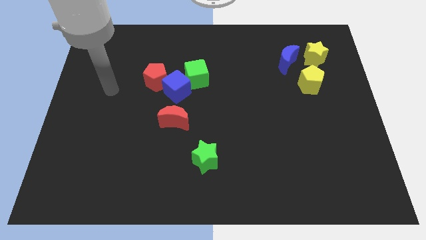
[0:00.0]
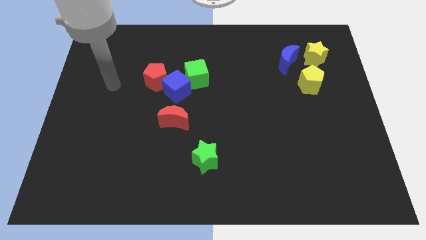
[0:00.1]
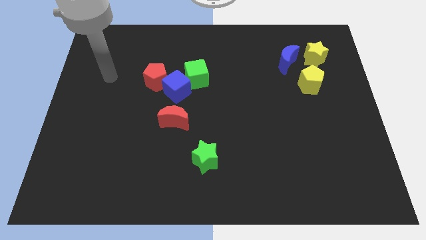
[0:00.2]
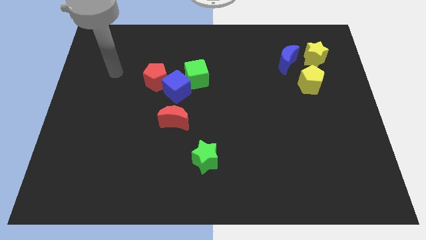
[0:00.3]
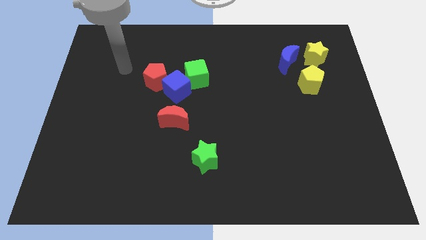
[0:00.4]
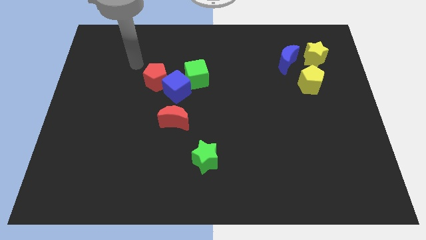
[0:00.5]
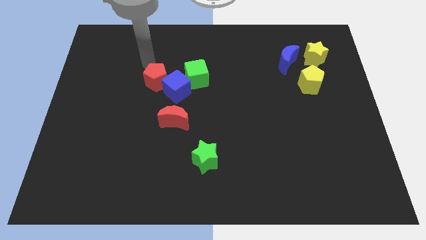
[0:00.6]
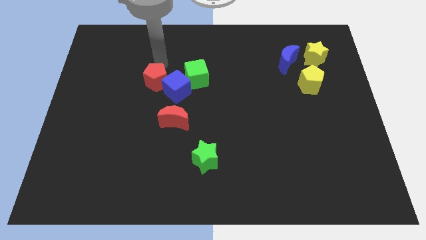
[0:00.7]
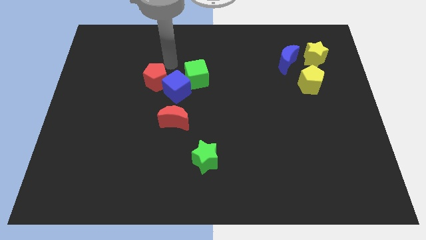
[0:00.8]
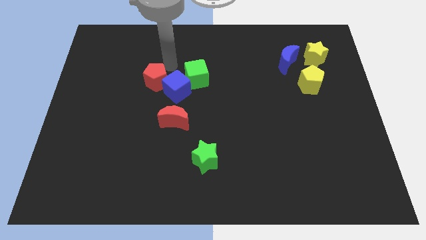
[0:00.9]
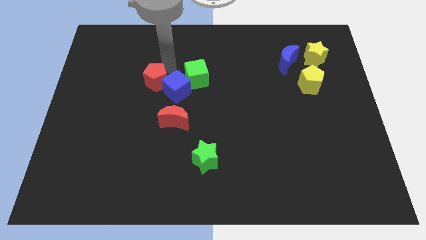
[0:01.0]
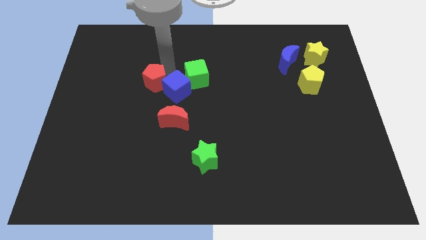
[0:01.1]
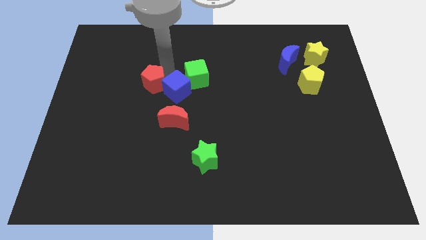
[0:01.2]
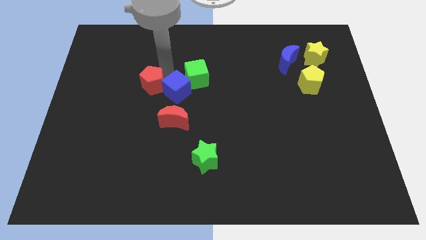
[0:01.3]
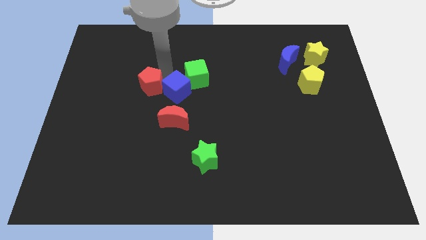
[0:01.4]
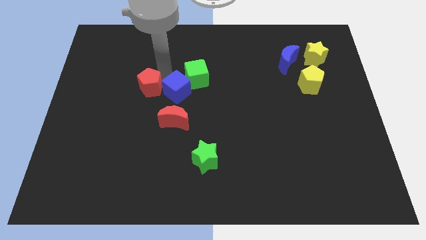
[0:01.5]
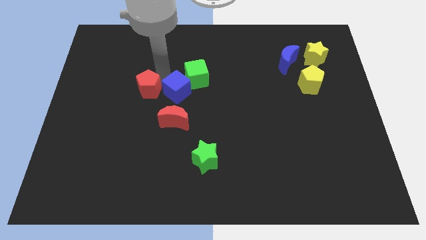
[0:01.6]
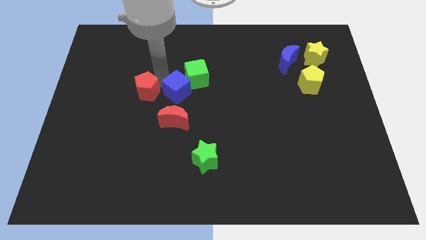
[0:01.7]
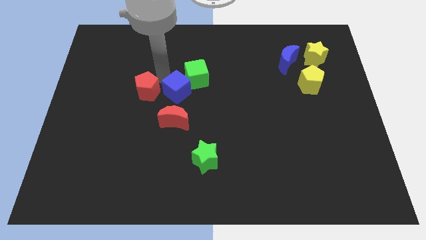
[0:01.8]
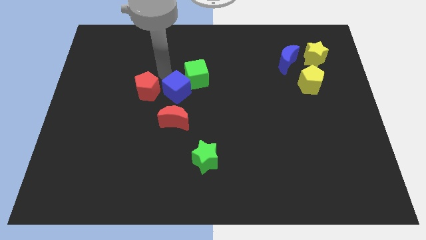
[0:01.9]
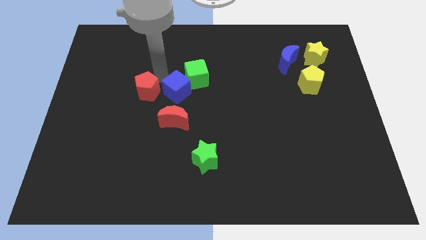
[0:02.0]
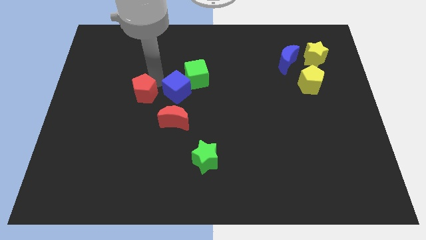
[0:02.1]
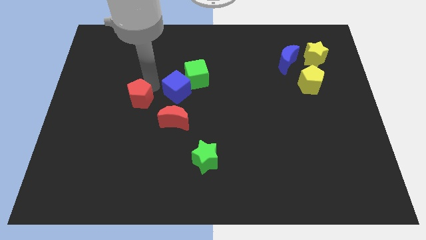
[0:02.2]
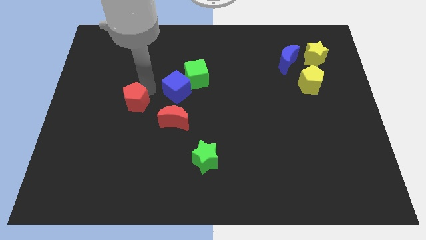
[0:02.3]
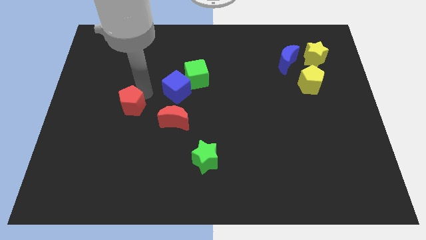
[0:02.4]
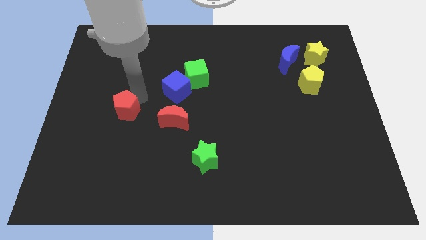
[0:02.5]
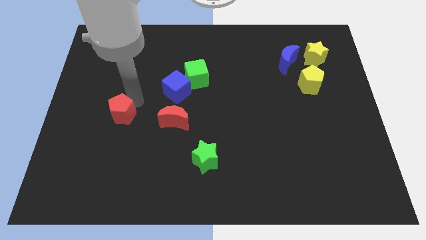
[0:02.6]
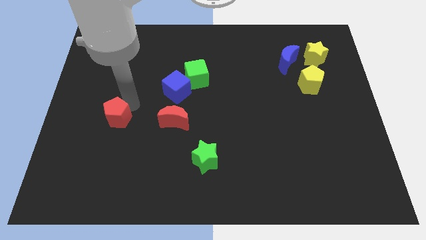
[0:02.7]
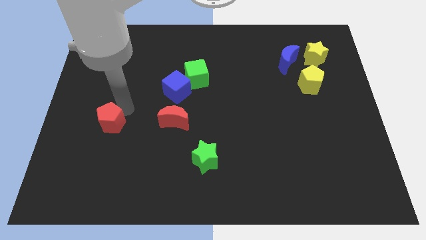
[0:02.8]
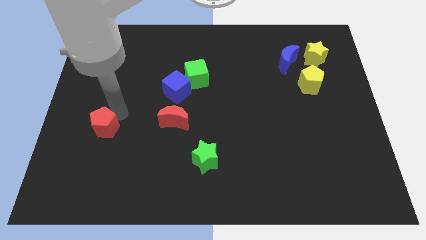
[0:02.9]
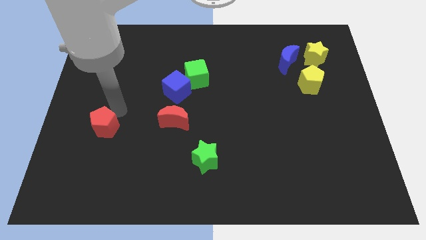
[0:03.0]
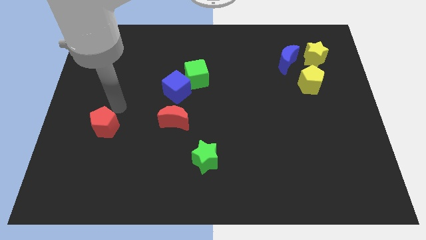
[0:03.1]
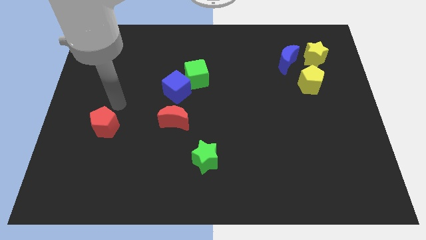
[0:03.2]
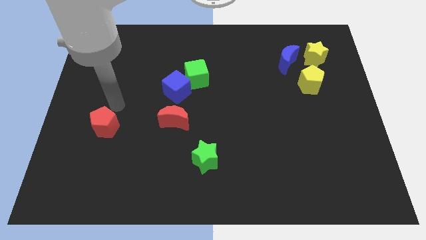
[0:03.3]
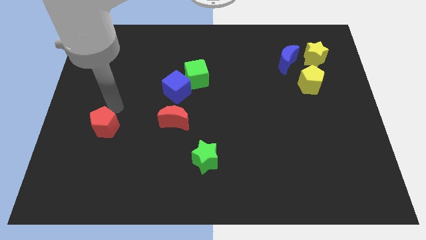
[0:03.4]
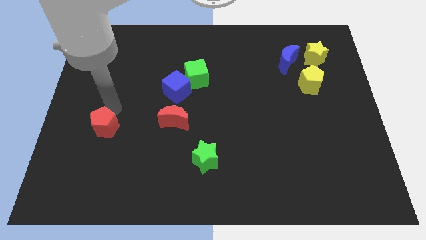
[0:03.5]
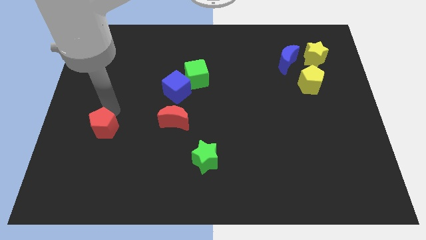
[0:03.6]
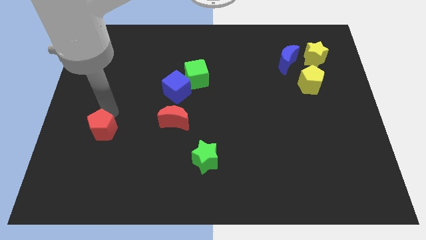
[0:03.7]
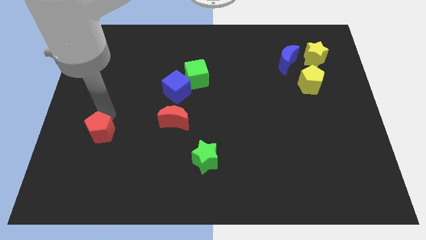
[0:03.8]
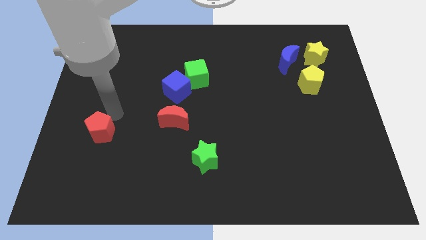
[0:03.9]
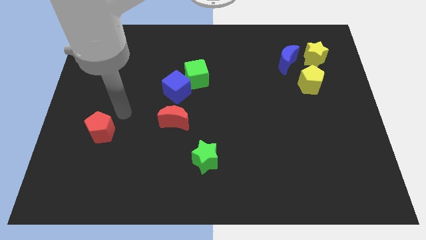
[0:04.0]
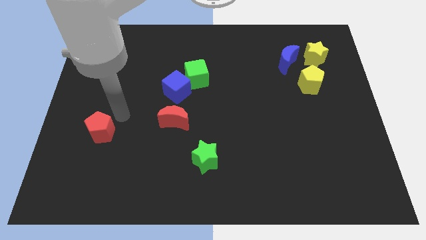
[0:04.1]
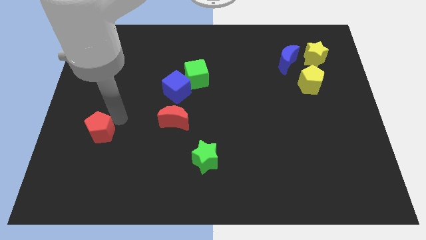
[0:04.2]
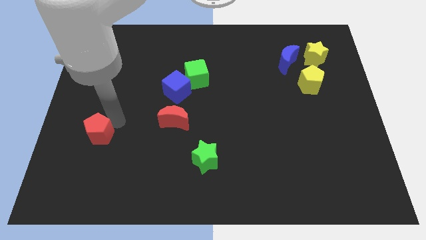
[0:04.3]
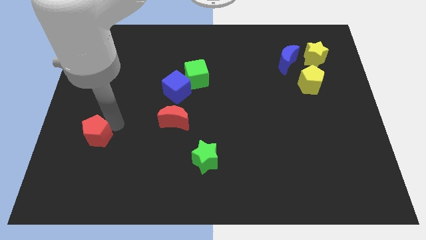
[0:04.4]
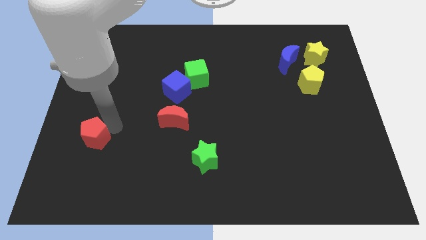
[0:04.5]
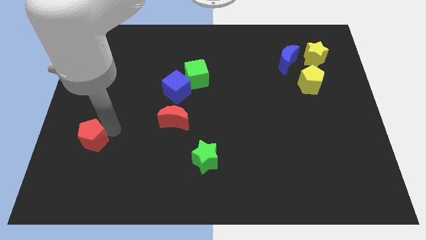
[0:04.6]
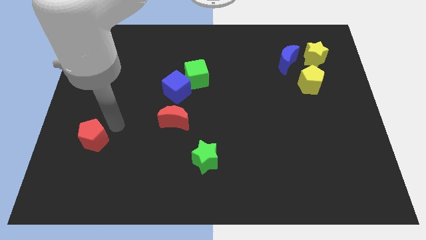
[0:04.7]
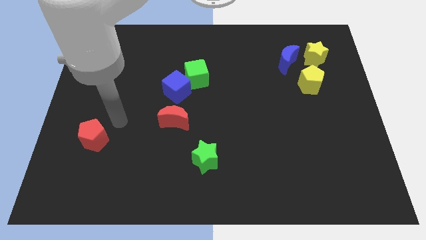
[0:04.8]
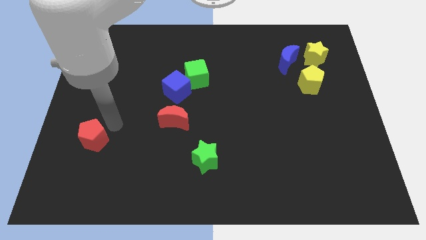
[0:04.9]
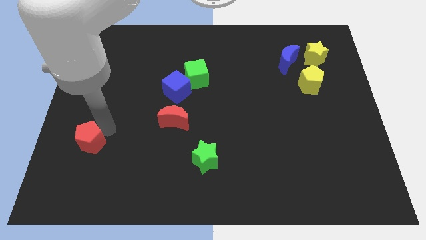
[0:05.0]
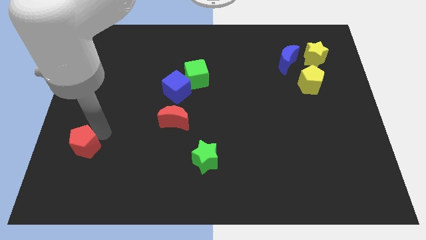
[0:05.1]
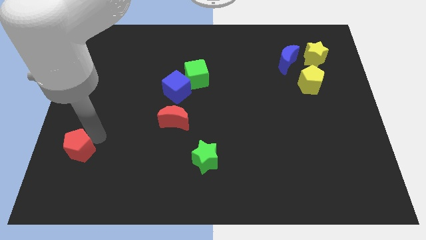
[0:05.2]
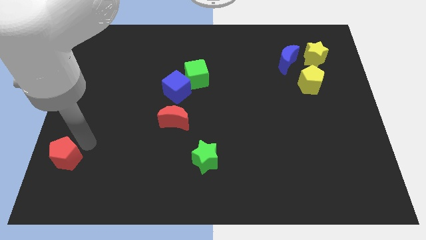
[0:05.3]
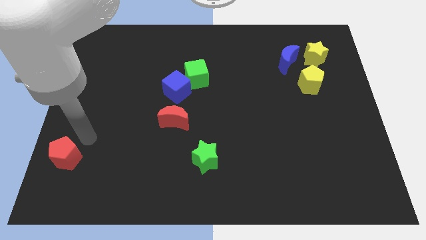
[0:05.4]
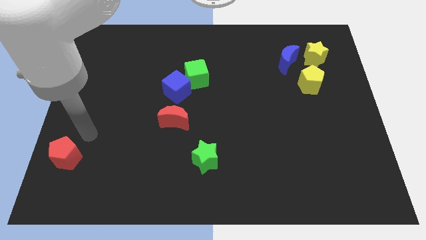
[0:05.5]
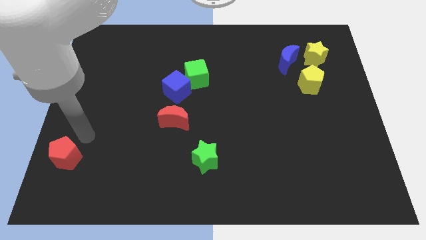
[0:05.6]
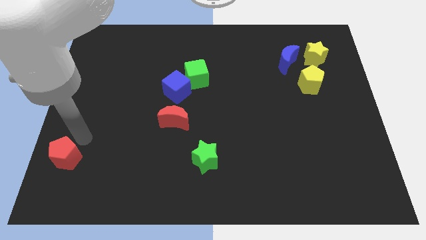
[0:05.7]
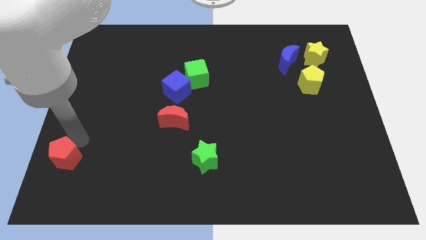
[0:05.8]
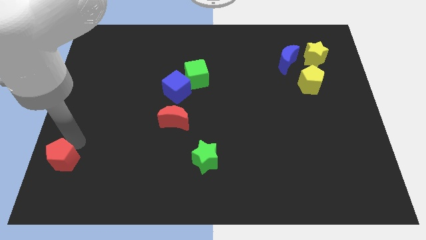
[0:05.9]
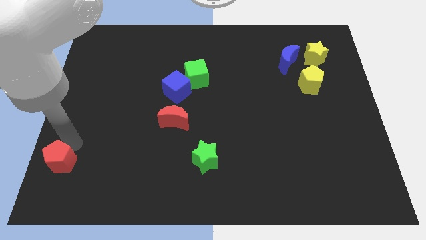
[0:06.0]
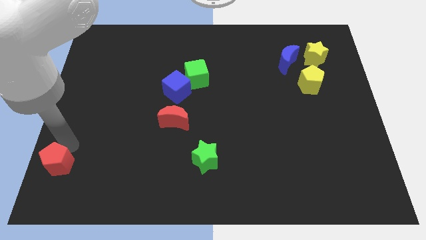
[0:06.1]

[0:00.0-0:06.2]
move the red pentagon to the bottom left of the board
